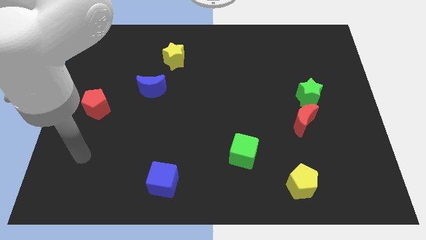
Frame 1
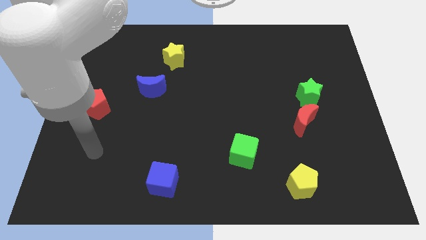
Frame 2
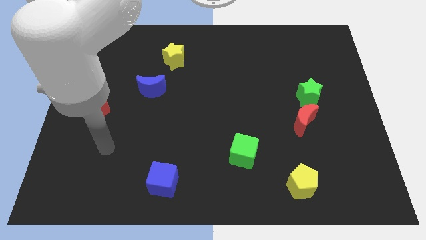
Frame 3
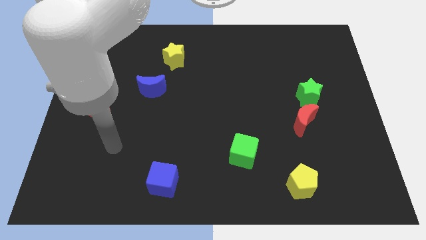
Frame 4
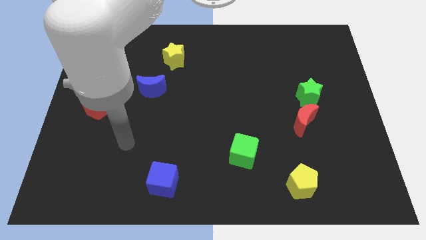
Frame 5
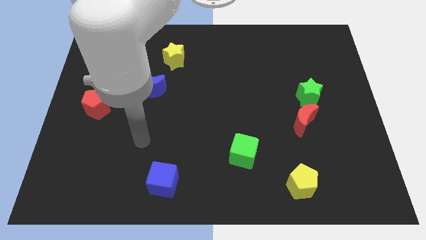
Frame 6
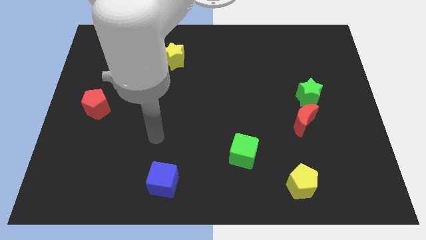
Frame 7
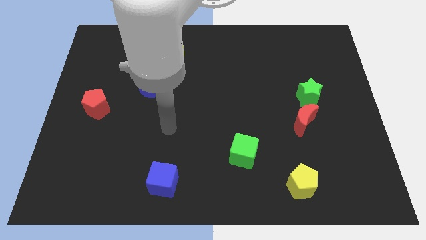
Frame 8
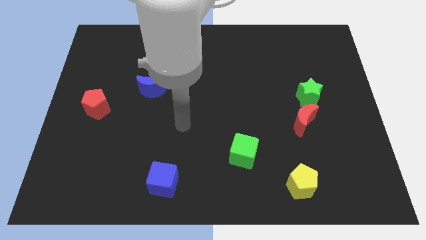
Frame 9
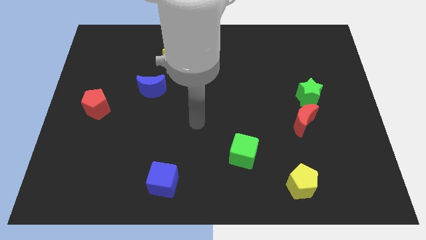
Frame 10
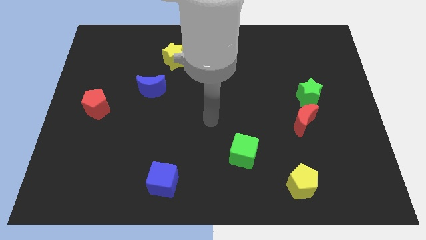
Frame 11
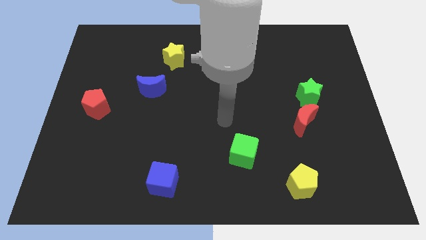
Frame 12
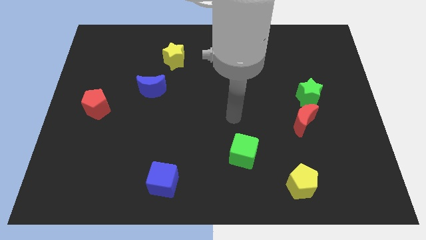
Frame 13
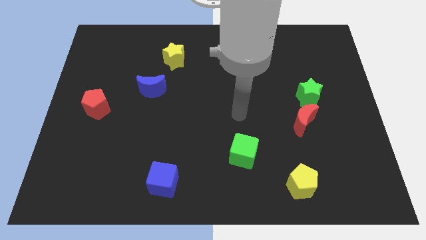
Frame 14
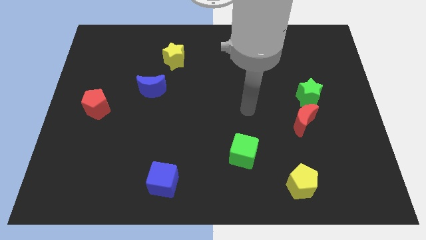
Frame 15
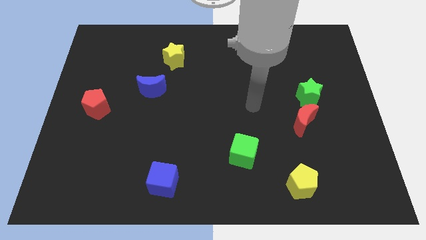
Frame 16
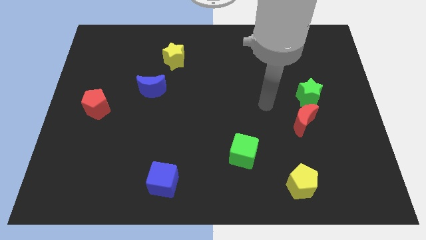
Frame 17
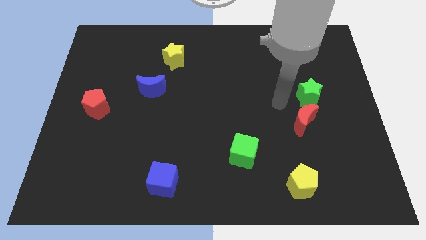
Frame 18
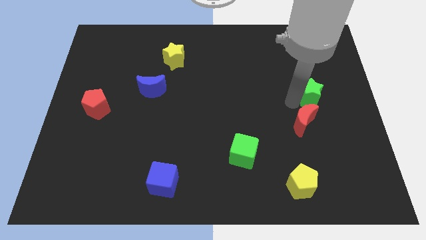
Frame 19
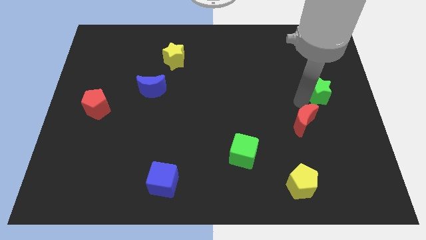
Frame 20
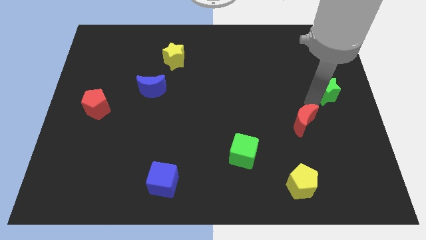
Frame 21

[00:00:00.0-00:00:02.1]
separate the red moon from the green star

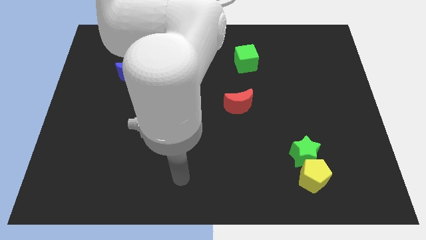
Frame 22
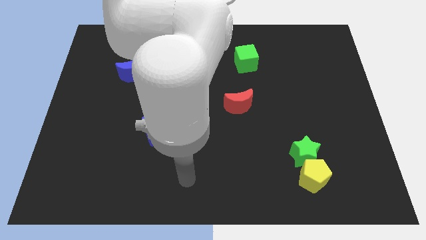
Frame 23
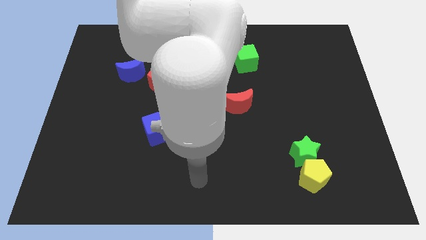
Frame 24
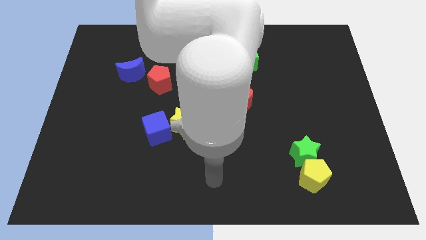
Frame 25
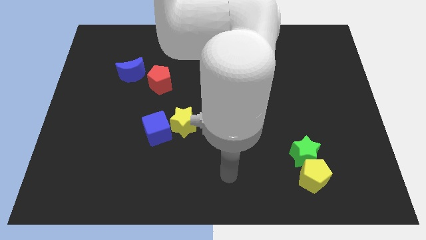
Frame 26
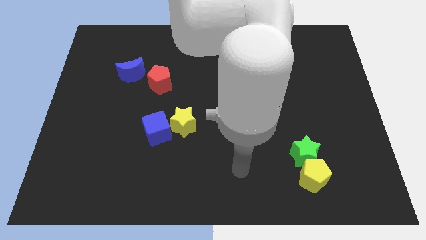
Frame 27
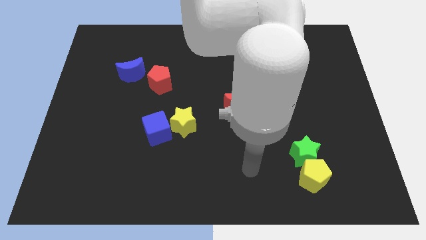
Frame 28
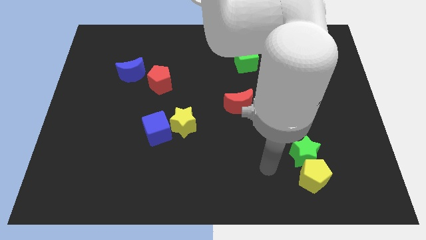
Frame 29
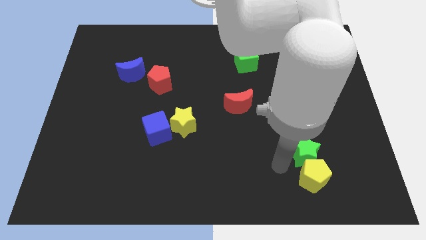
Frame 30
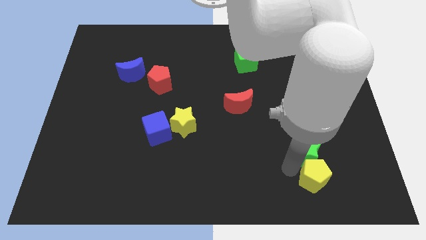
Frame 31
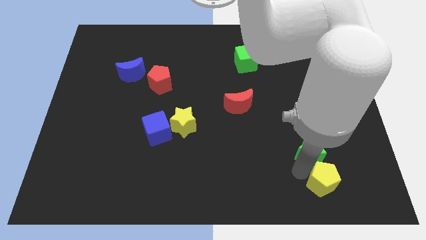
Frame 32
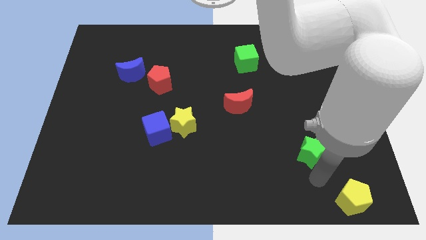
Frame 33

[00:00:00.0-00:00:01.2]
move the green star away from the yellow pentagon

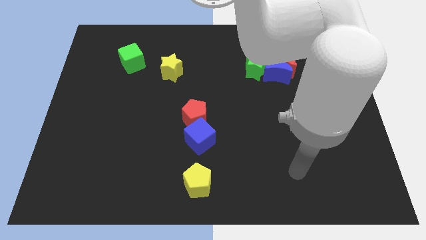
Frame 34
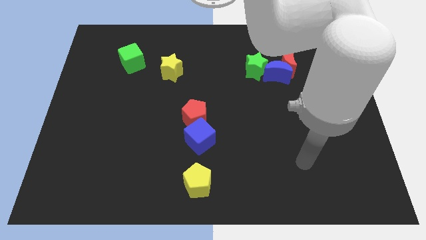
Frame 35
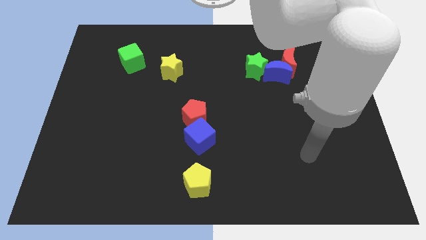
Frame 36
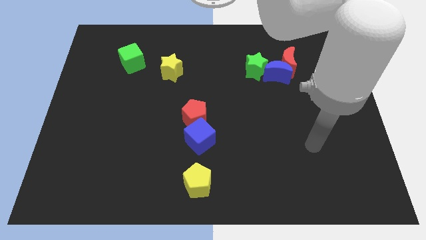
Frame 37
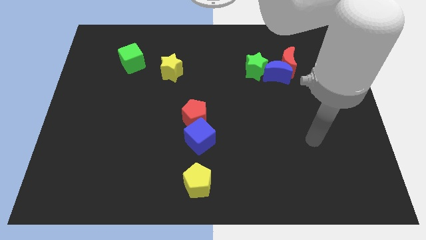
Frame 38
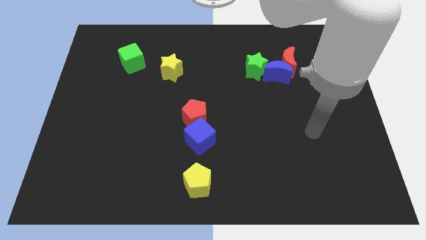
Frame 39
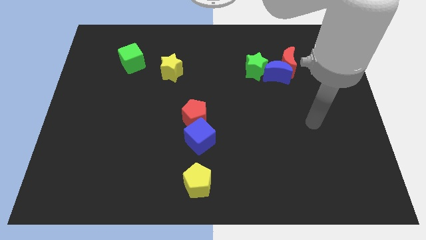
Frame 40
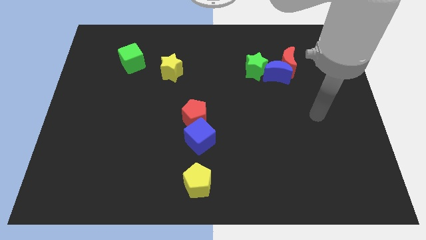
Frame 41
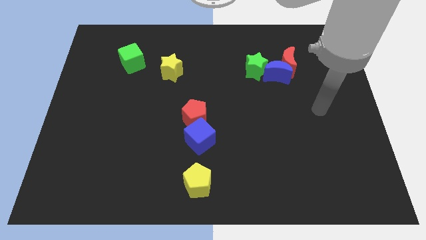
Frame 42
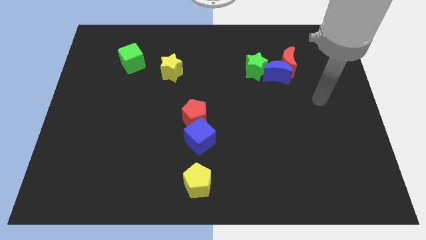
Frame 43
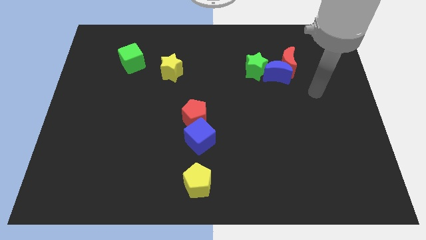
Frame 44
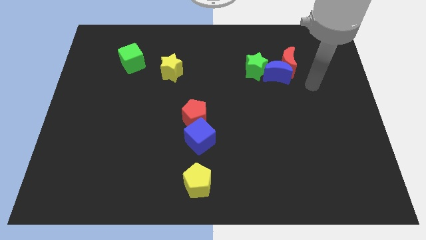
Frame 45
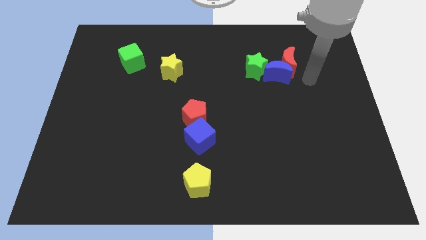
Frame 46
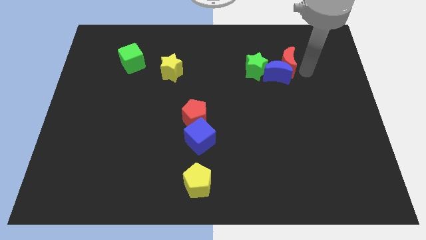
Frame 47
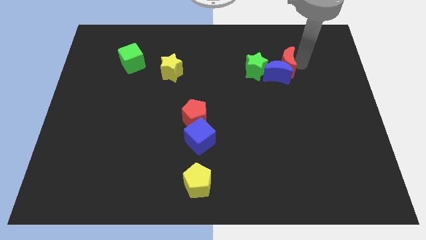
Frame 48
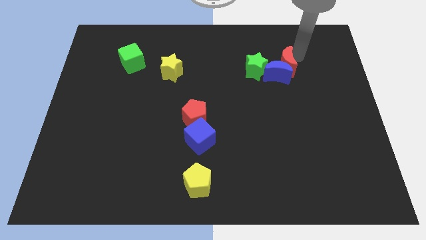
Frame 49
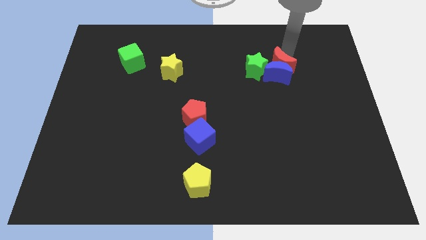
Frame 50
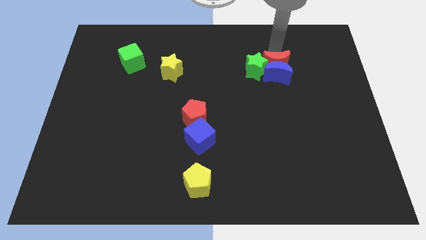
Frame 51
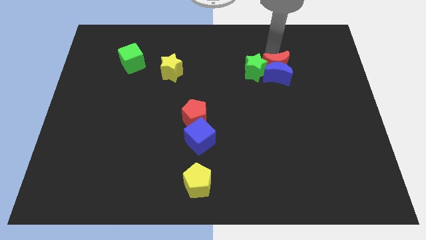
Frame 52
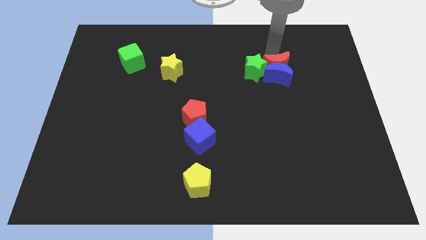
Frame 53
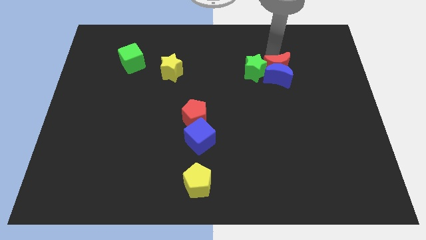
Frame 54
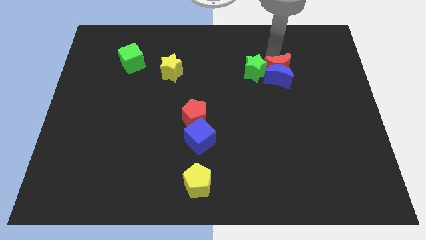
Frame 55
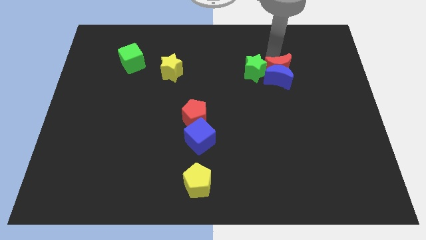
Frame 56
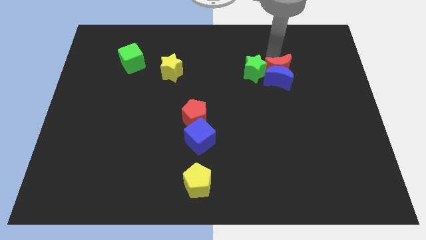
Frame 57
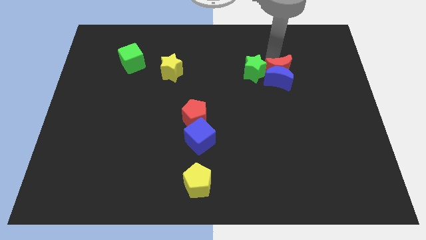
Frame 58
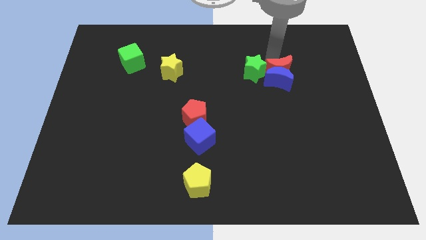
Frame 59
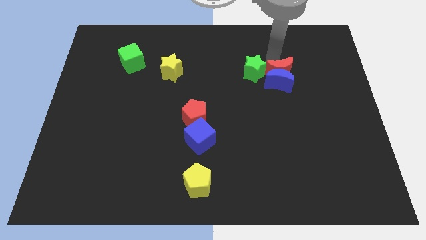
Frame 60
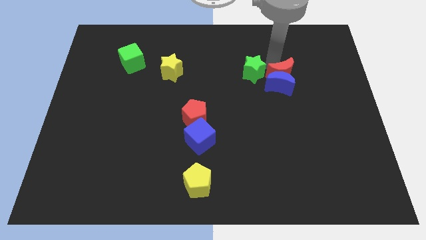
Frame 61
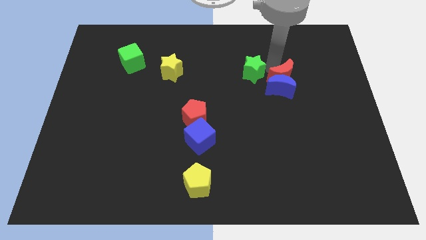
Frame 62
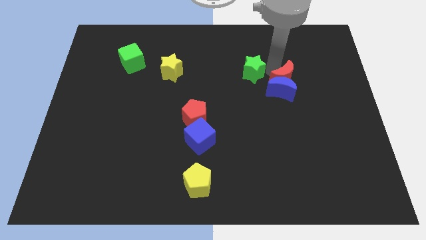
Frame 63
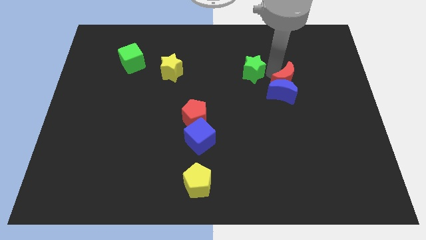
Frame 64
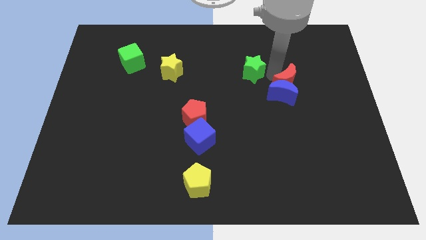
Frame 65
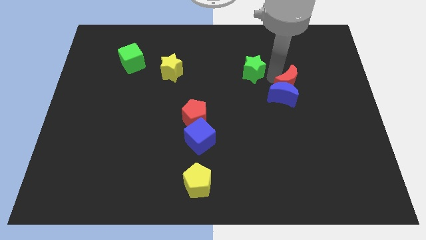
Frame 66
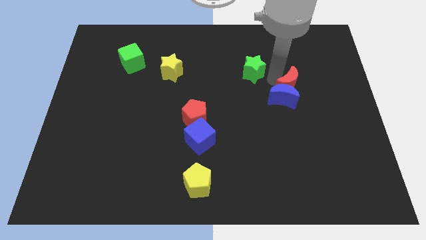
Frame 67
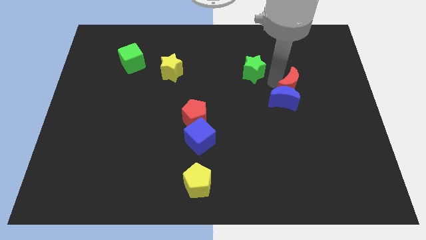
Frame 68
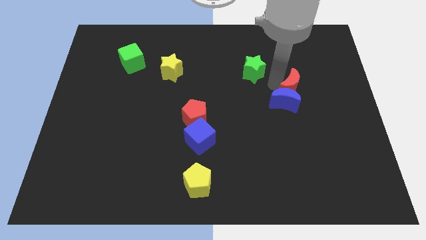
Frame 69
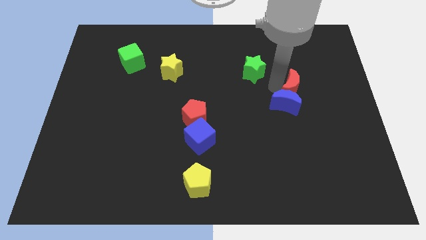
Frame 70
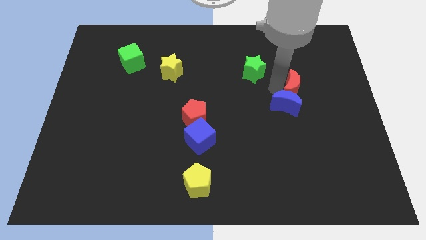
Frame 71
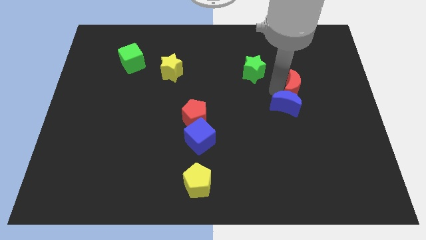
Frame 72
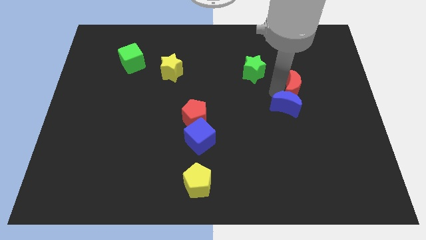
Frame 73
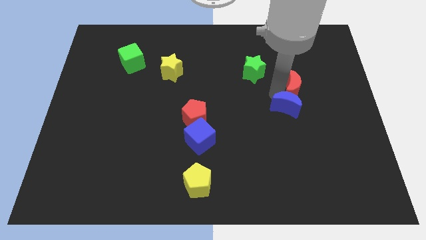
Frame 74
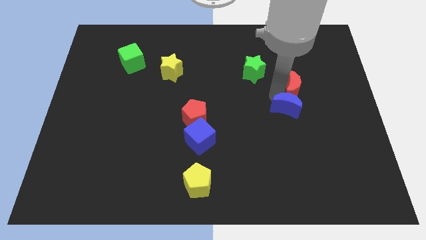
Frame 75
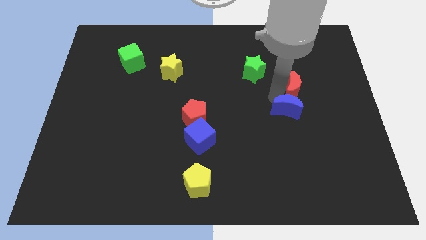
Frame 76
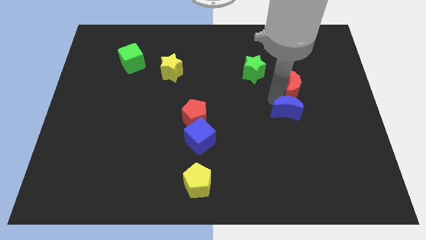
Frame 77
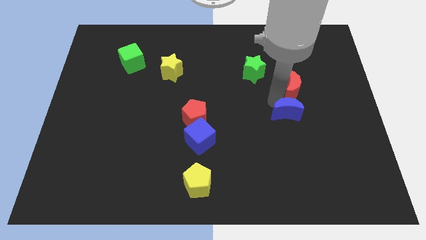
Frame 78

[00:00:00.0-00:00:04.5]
pull the blue moon apart from the red moon and green star

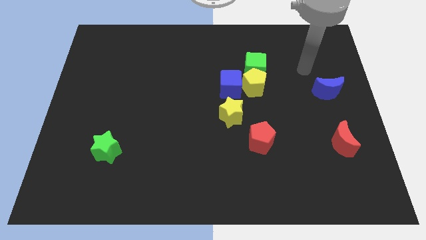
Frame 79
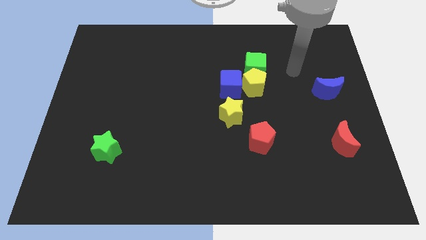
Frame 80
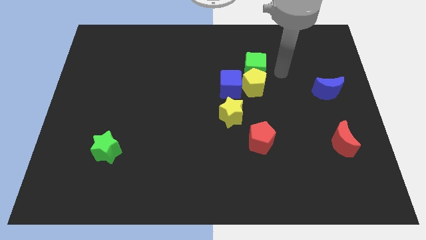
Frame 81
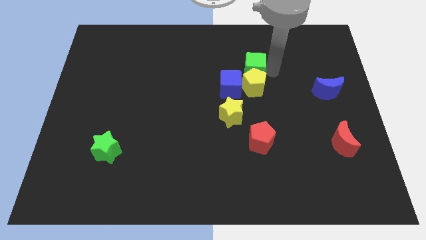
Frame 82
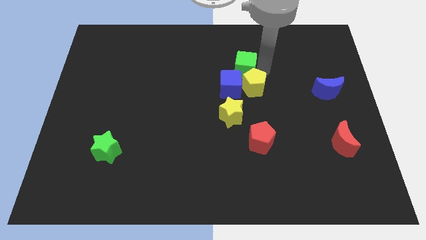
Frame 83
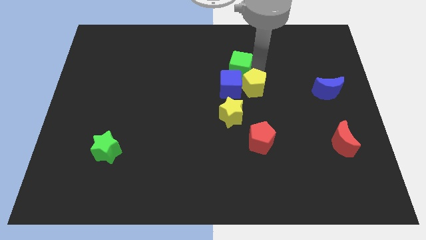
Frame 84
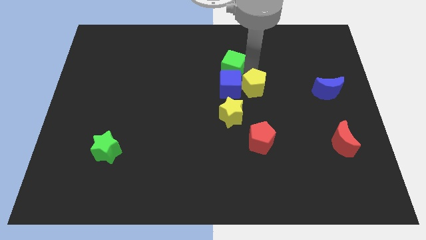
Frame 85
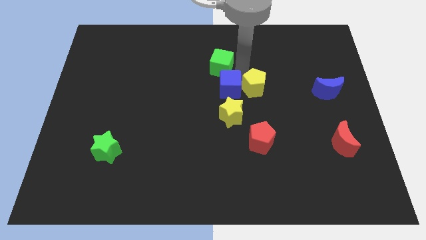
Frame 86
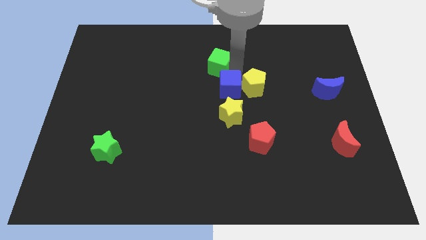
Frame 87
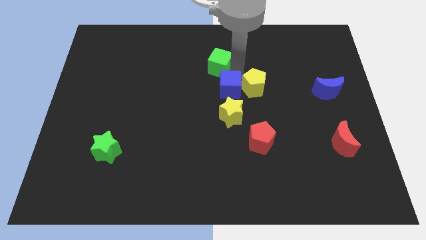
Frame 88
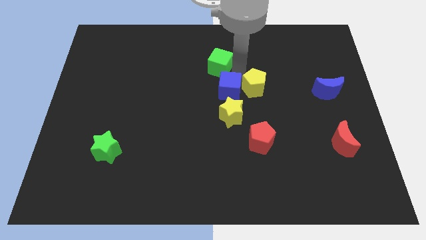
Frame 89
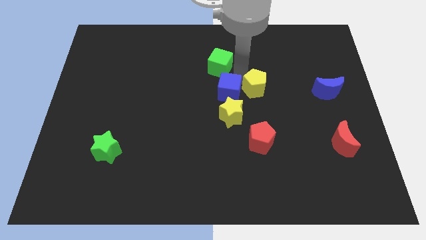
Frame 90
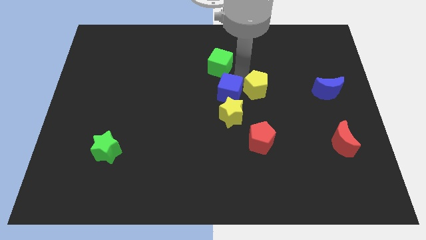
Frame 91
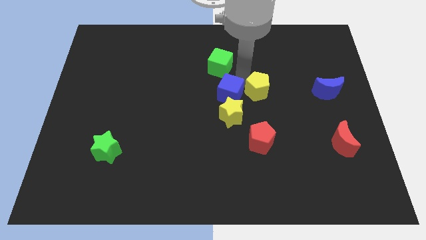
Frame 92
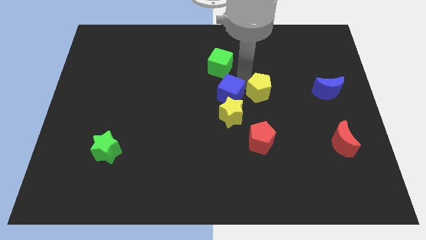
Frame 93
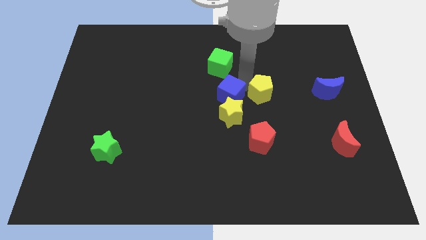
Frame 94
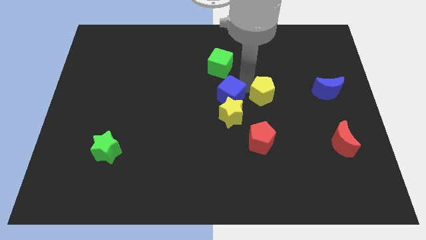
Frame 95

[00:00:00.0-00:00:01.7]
move the yellow pentagon away from the green cube and blue cube
